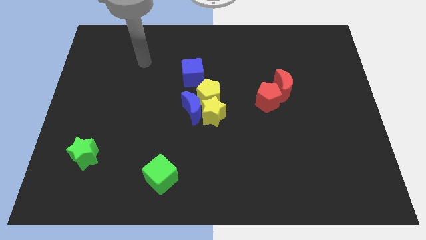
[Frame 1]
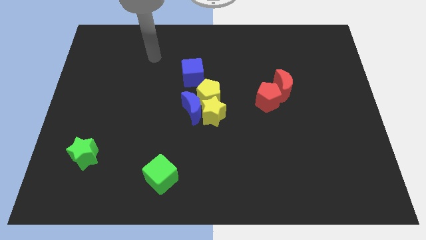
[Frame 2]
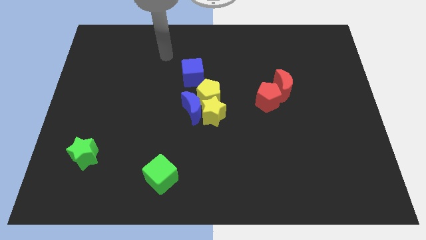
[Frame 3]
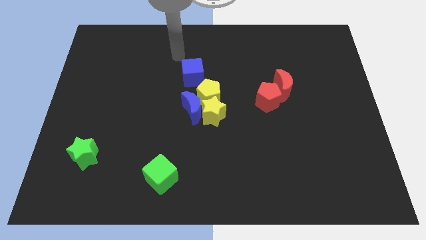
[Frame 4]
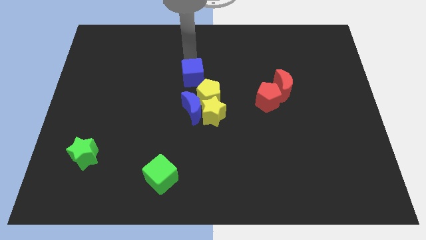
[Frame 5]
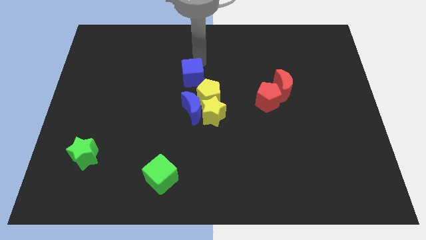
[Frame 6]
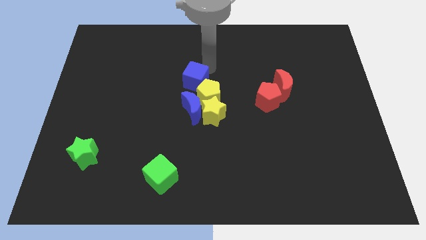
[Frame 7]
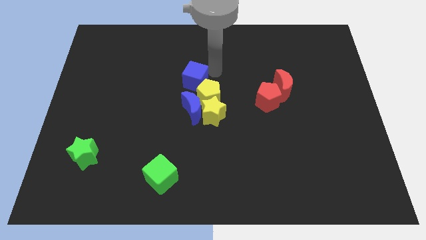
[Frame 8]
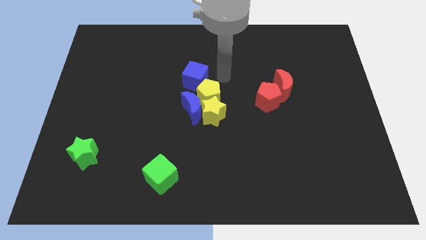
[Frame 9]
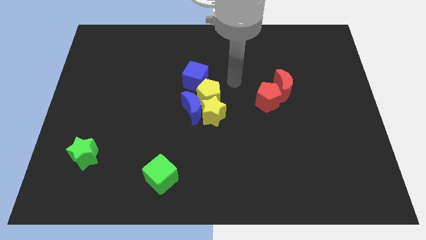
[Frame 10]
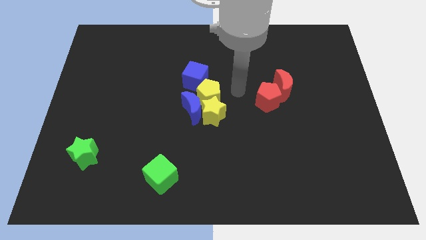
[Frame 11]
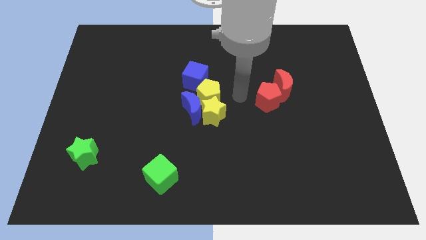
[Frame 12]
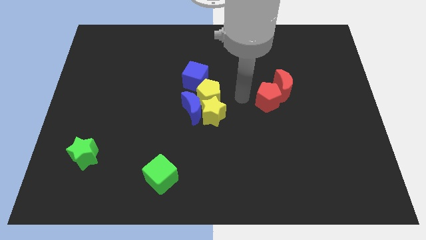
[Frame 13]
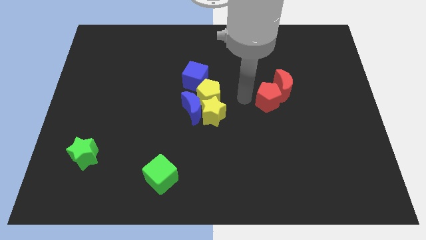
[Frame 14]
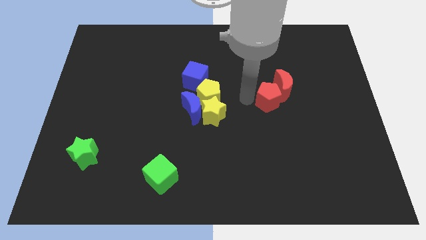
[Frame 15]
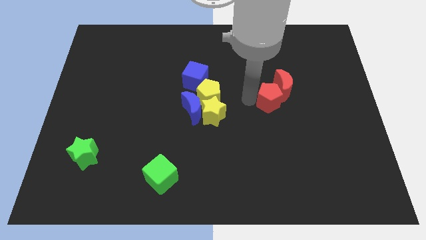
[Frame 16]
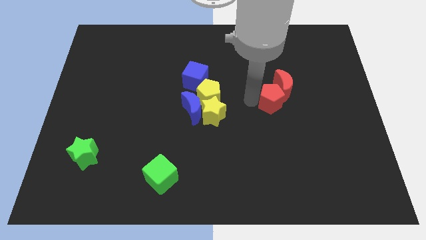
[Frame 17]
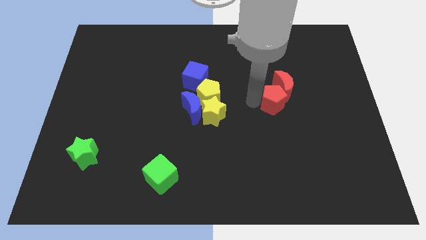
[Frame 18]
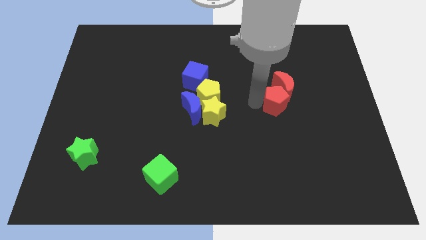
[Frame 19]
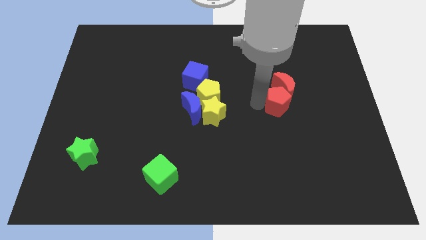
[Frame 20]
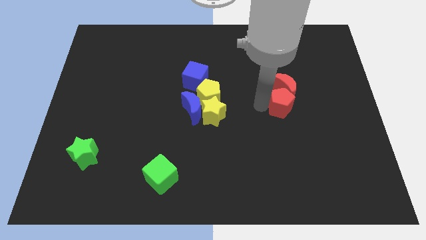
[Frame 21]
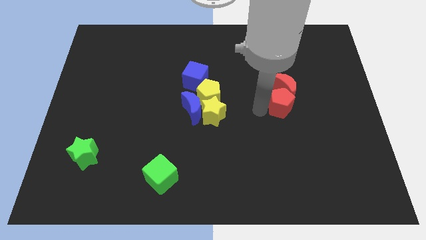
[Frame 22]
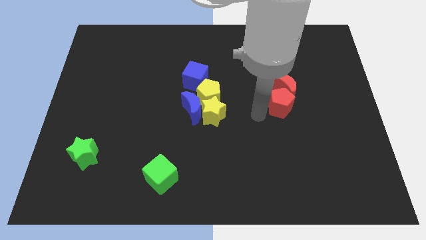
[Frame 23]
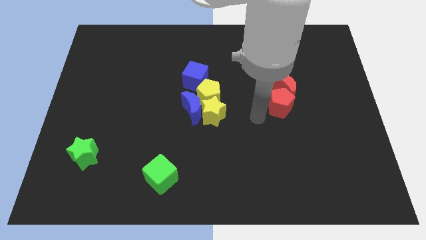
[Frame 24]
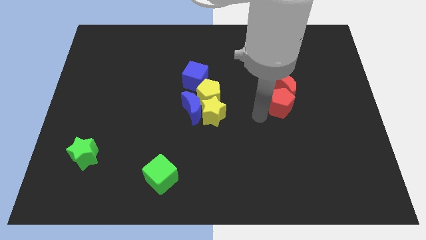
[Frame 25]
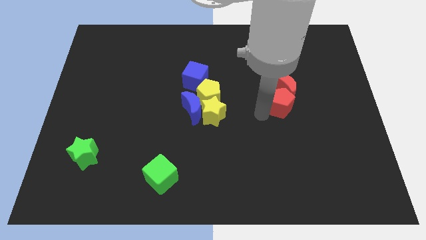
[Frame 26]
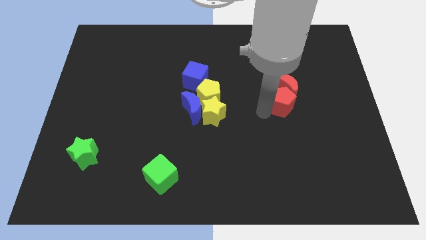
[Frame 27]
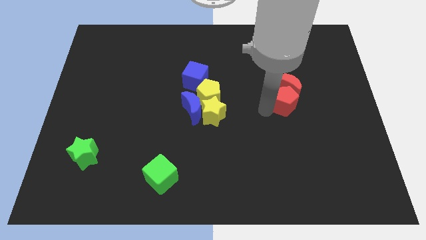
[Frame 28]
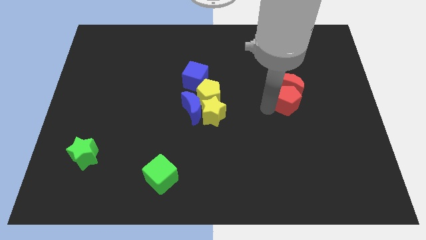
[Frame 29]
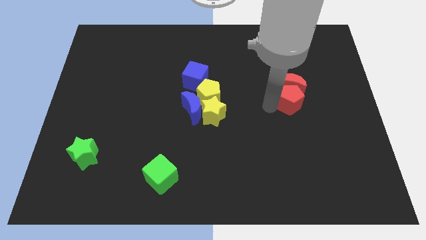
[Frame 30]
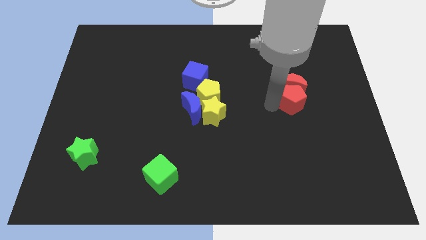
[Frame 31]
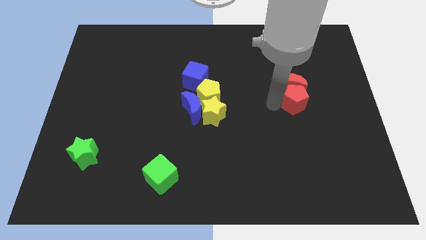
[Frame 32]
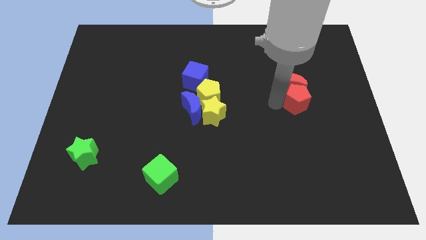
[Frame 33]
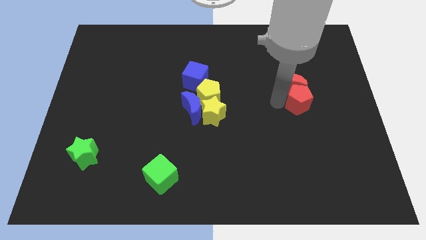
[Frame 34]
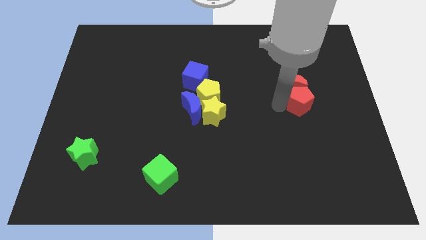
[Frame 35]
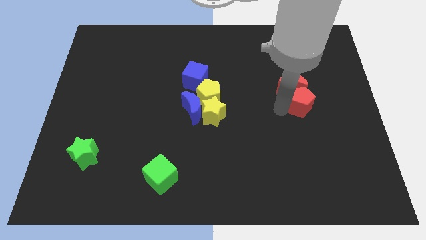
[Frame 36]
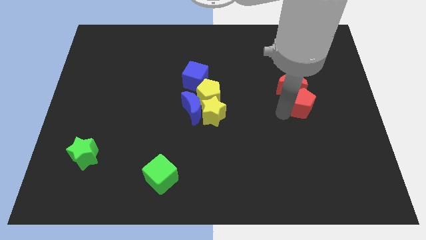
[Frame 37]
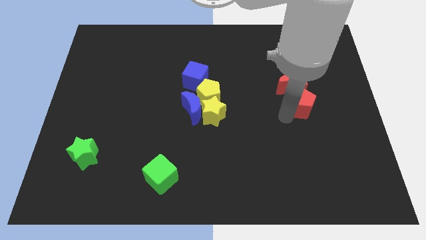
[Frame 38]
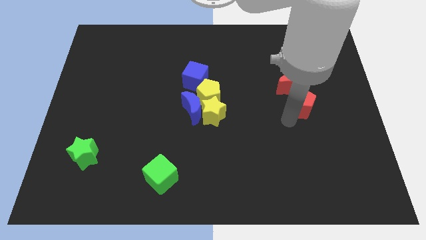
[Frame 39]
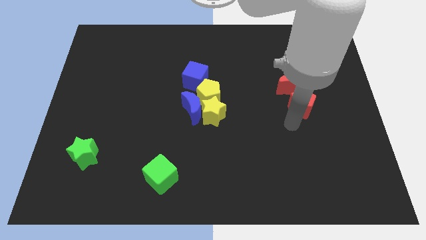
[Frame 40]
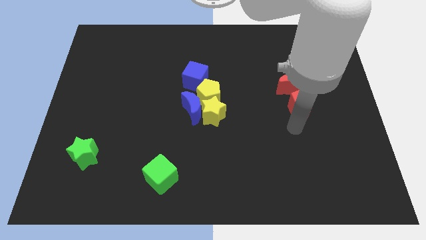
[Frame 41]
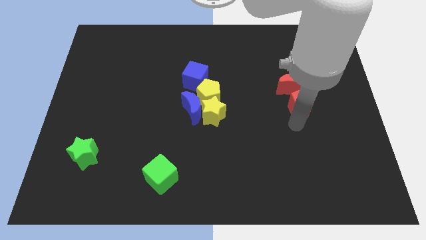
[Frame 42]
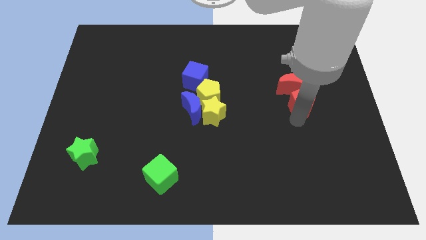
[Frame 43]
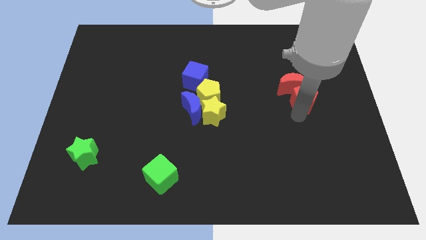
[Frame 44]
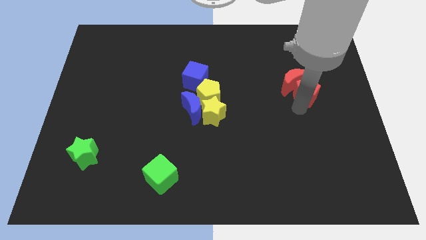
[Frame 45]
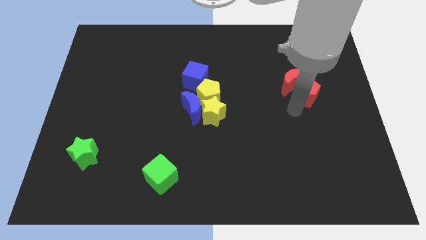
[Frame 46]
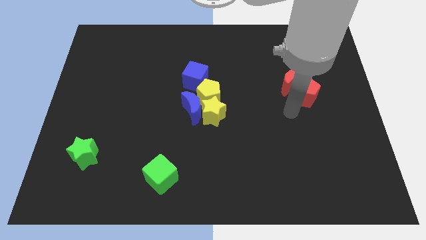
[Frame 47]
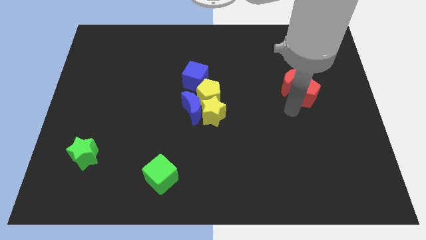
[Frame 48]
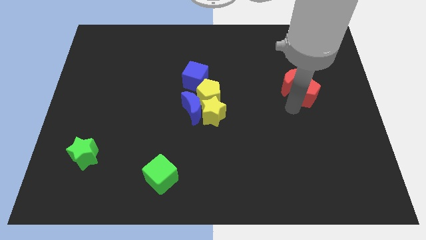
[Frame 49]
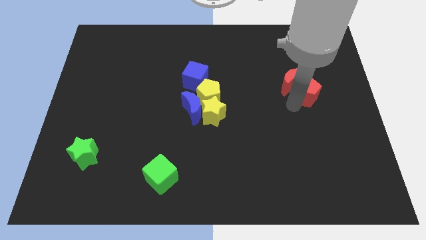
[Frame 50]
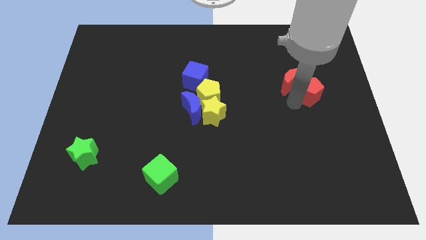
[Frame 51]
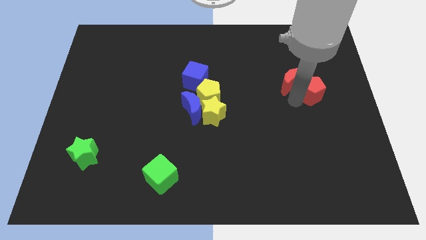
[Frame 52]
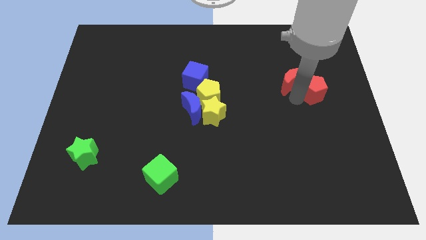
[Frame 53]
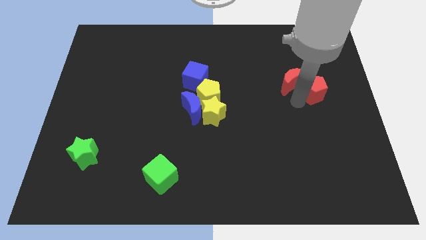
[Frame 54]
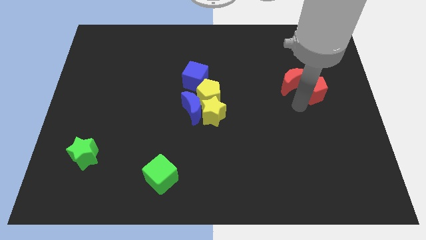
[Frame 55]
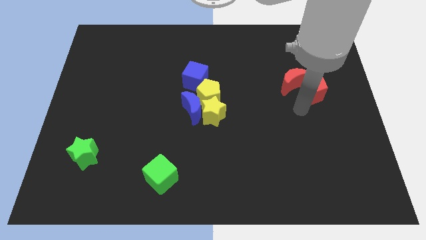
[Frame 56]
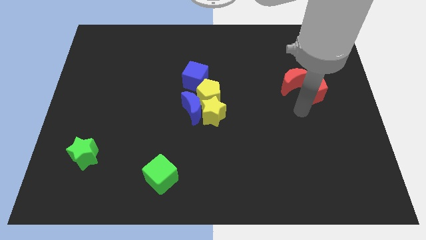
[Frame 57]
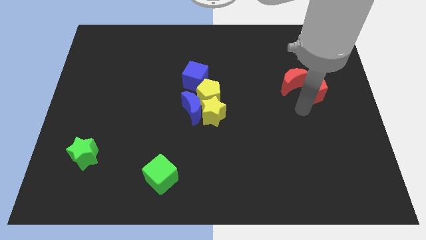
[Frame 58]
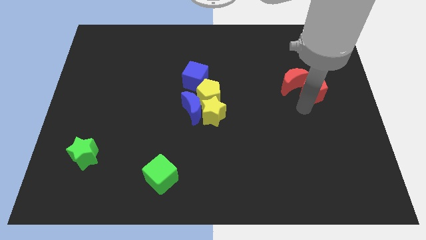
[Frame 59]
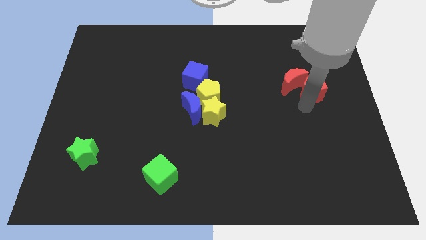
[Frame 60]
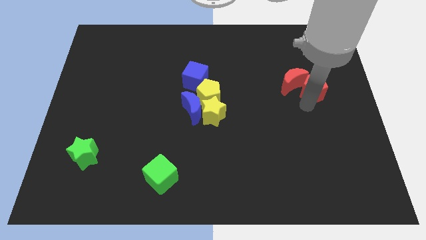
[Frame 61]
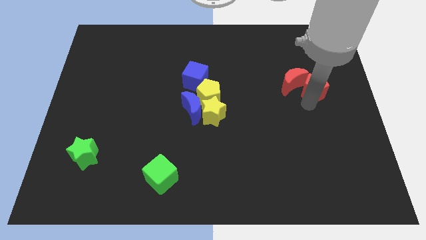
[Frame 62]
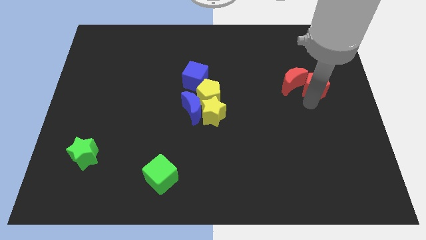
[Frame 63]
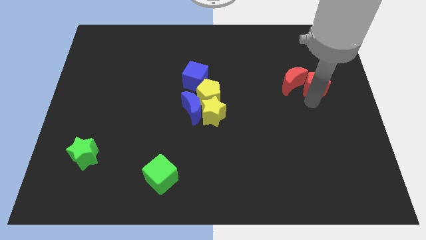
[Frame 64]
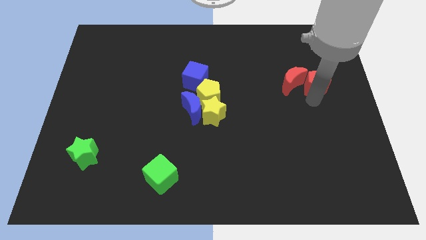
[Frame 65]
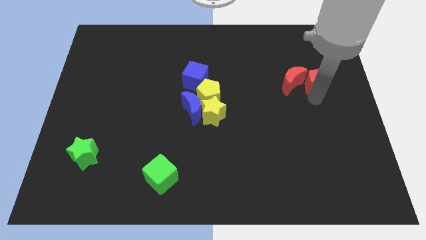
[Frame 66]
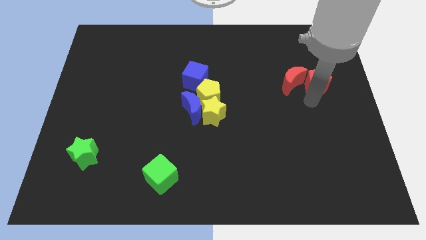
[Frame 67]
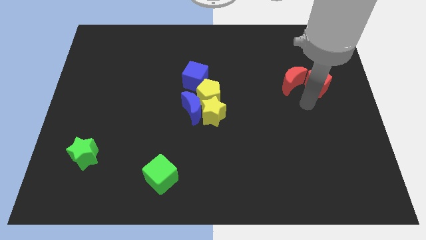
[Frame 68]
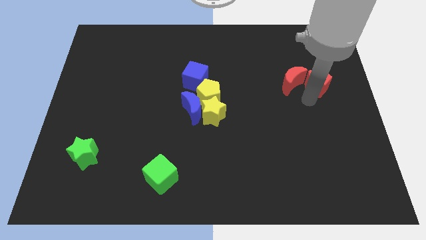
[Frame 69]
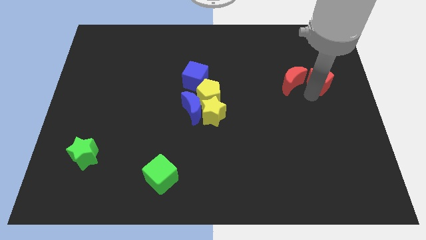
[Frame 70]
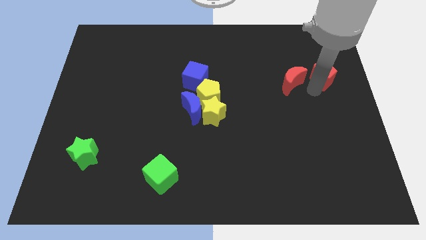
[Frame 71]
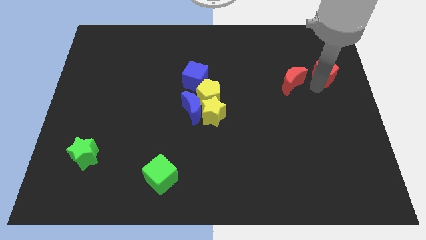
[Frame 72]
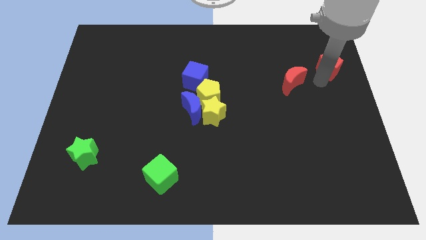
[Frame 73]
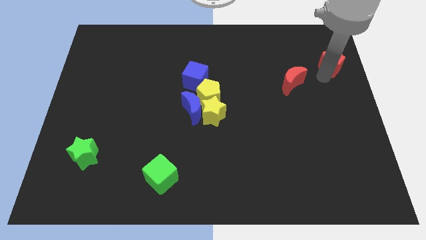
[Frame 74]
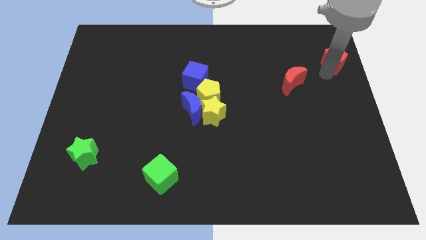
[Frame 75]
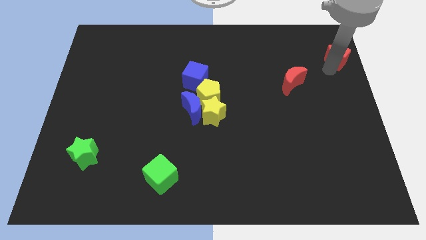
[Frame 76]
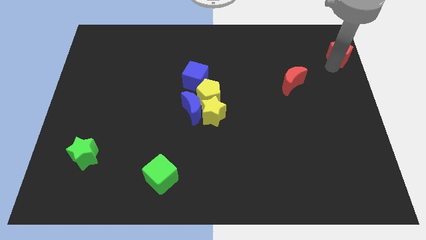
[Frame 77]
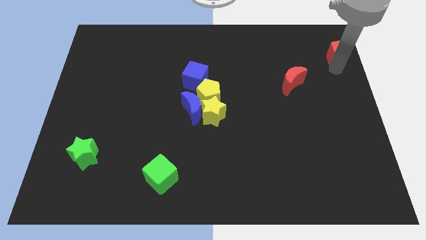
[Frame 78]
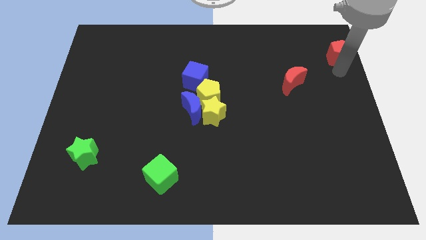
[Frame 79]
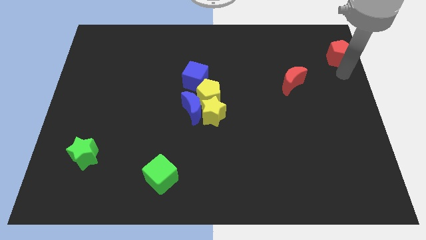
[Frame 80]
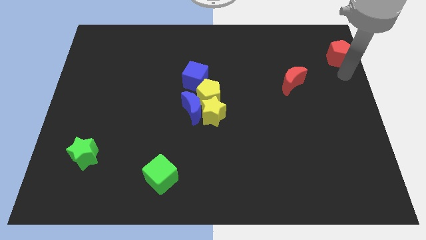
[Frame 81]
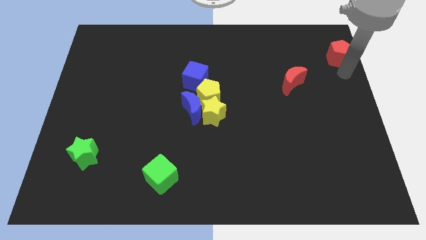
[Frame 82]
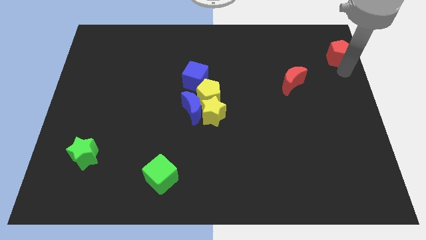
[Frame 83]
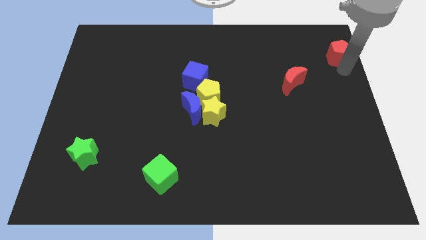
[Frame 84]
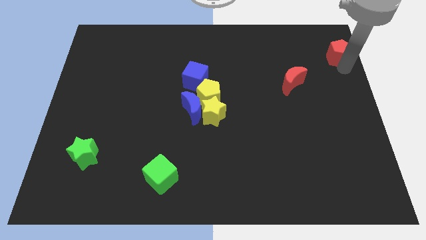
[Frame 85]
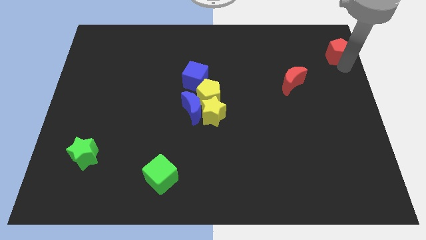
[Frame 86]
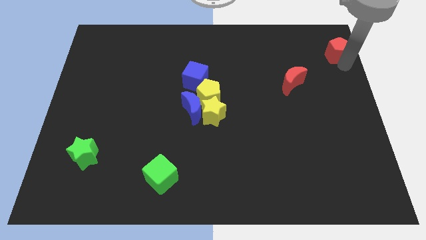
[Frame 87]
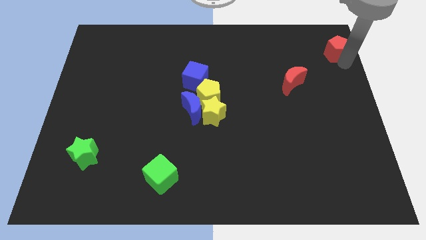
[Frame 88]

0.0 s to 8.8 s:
put the red pentagon to the top right corner
